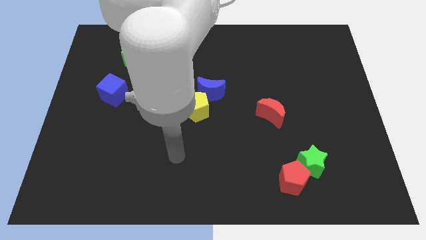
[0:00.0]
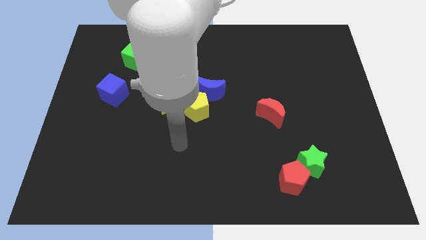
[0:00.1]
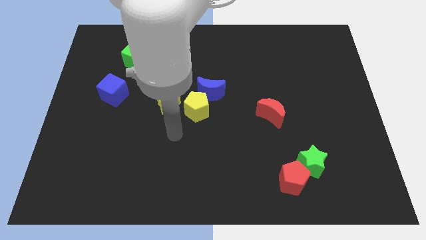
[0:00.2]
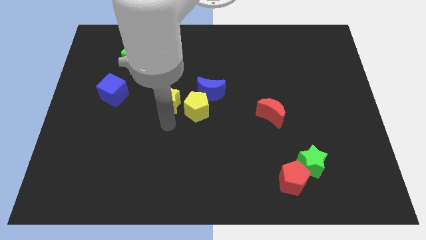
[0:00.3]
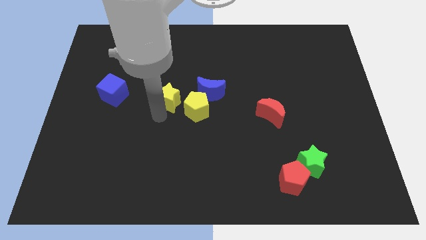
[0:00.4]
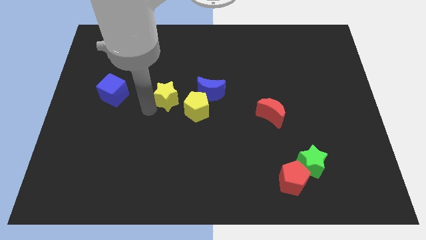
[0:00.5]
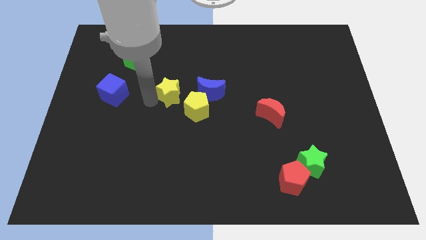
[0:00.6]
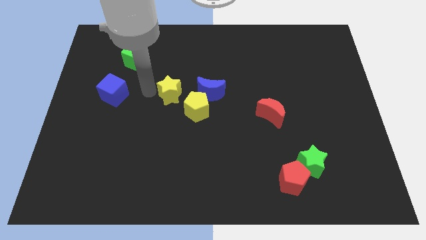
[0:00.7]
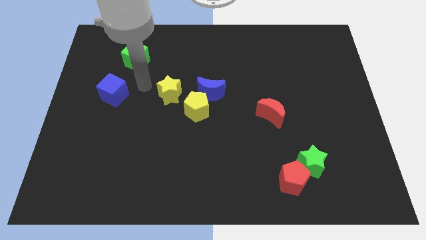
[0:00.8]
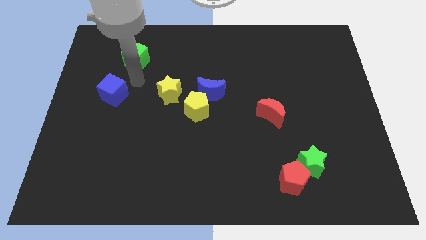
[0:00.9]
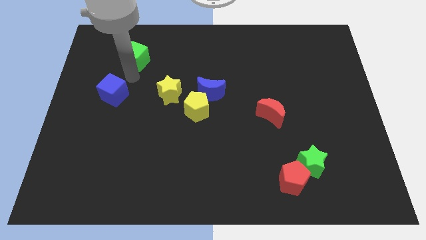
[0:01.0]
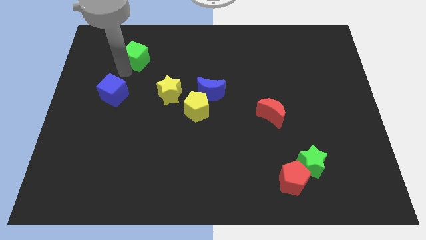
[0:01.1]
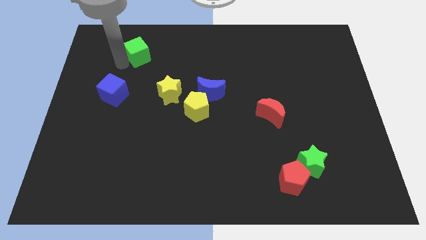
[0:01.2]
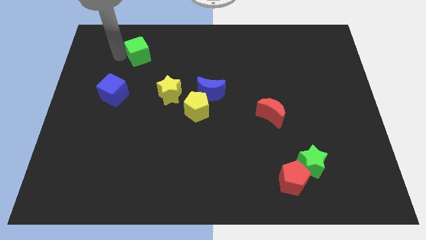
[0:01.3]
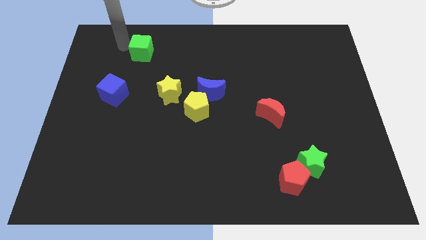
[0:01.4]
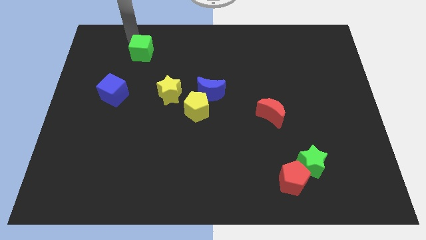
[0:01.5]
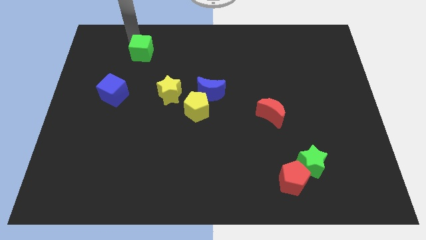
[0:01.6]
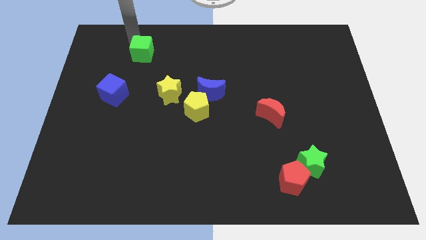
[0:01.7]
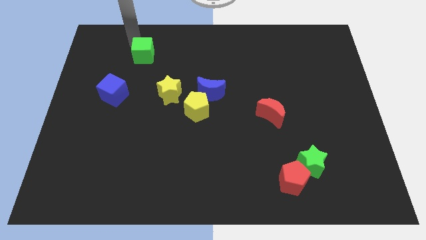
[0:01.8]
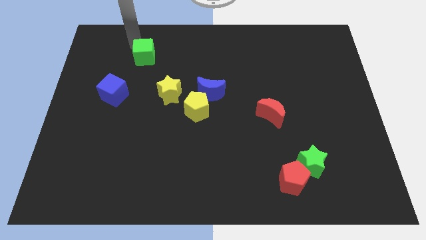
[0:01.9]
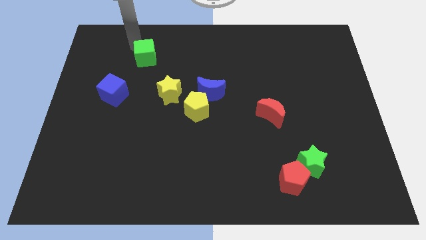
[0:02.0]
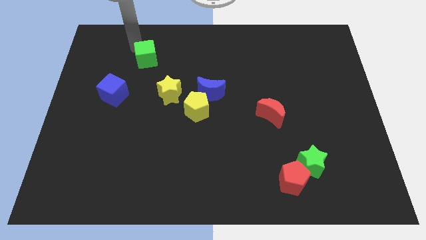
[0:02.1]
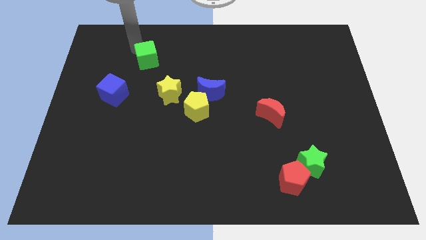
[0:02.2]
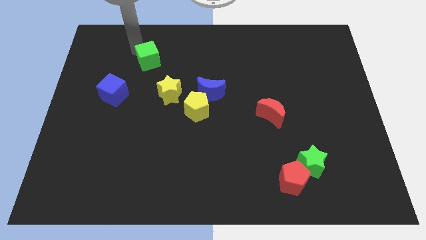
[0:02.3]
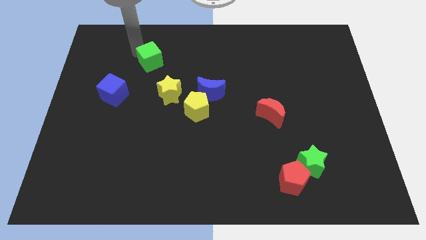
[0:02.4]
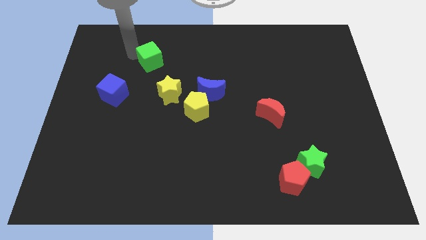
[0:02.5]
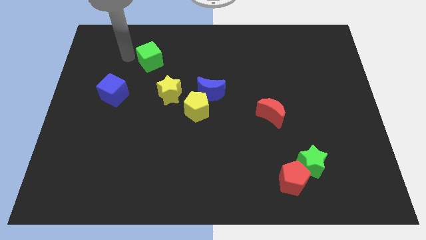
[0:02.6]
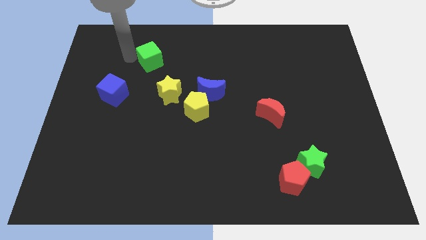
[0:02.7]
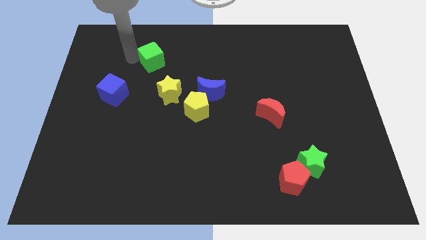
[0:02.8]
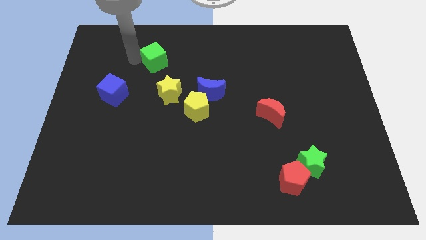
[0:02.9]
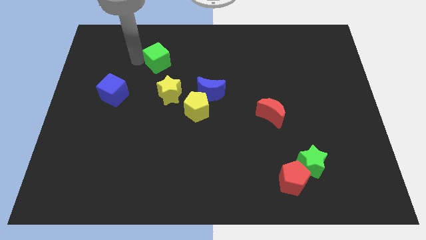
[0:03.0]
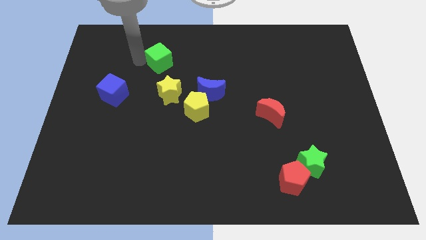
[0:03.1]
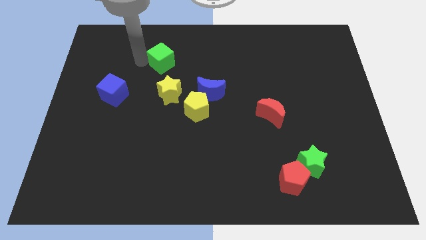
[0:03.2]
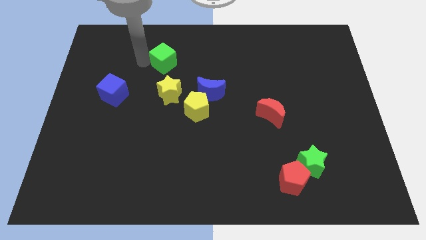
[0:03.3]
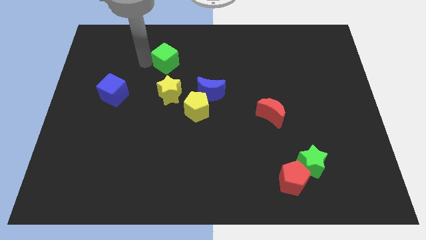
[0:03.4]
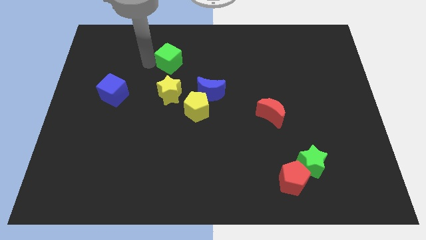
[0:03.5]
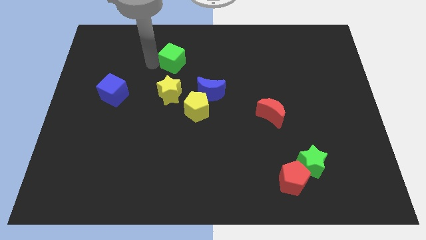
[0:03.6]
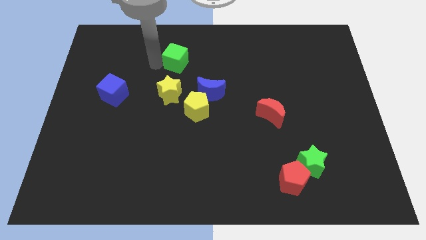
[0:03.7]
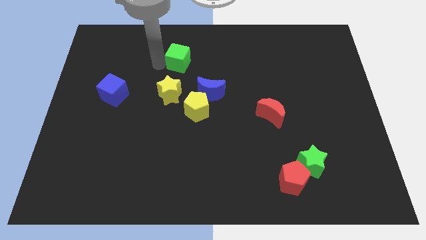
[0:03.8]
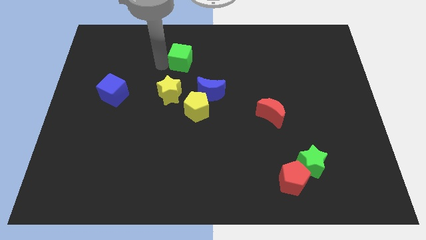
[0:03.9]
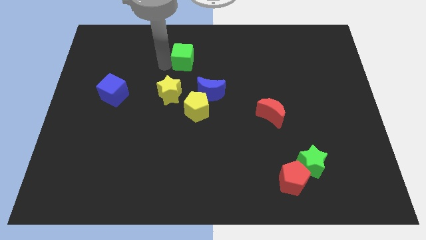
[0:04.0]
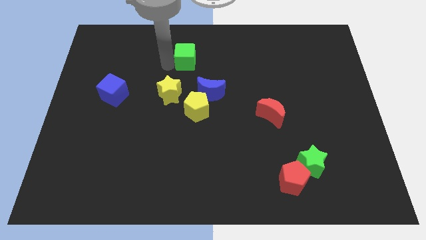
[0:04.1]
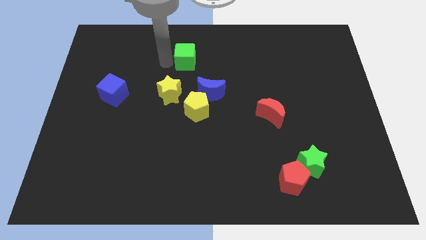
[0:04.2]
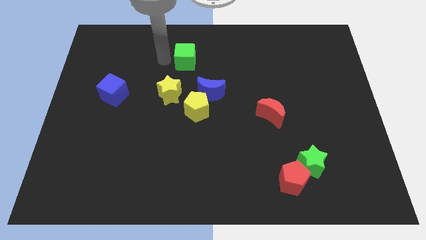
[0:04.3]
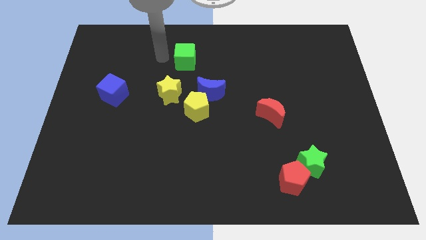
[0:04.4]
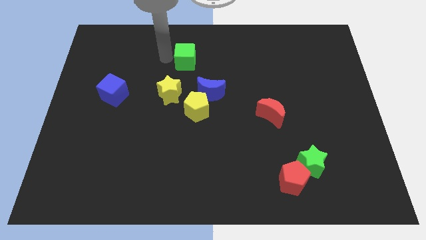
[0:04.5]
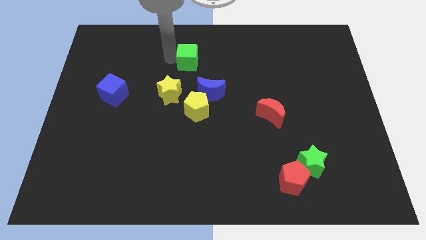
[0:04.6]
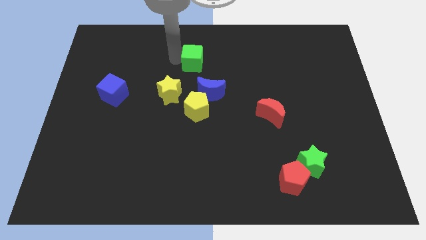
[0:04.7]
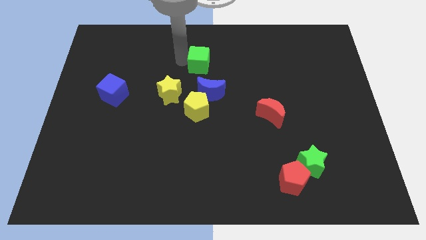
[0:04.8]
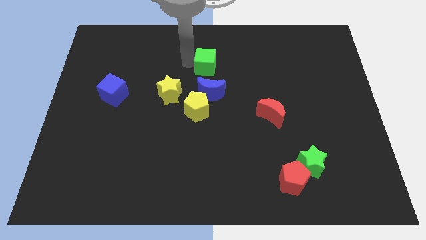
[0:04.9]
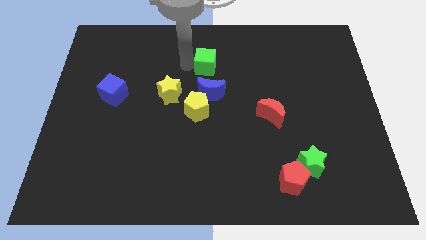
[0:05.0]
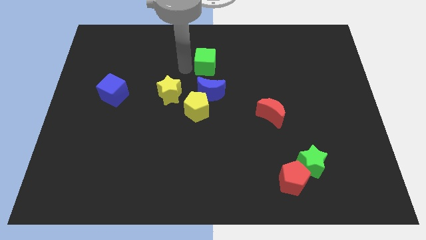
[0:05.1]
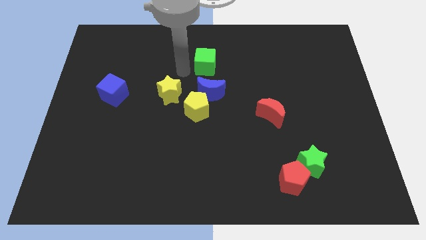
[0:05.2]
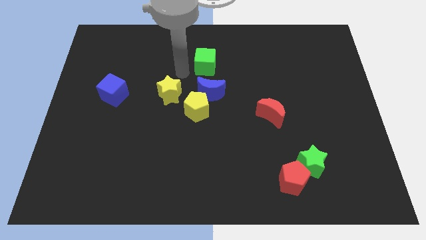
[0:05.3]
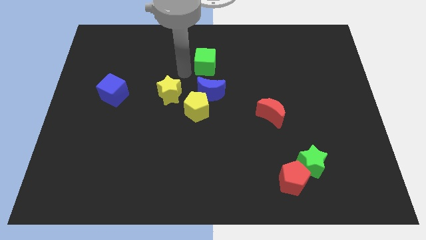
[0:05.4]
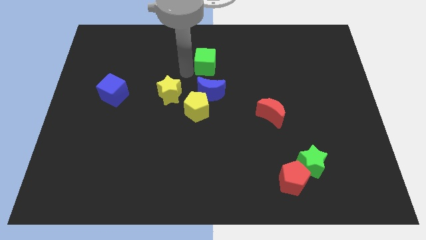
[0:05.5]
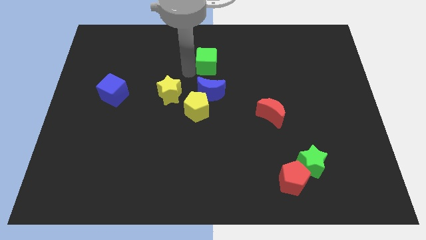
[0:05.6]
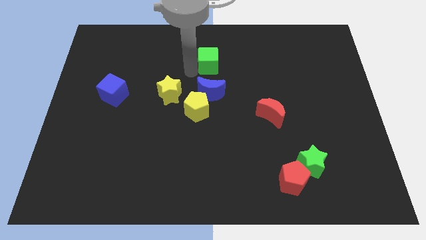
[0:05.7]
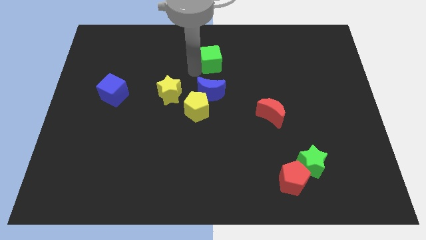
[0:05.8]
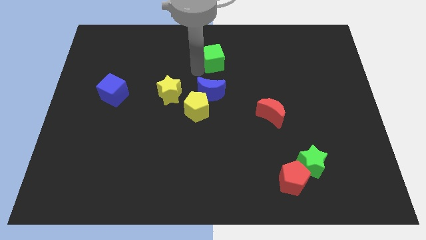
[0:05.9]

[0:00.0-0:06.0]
move the green cube right

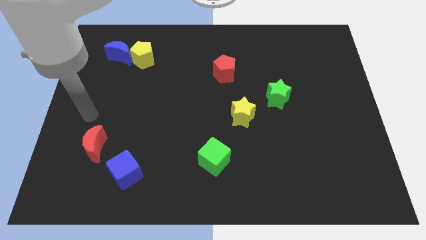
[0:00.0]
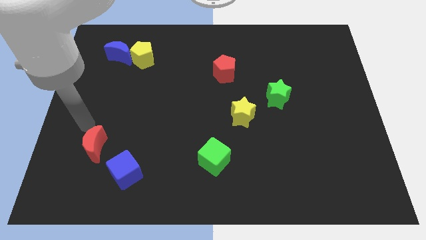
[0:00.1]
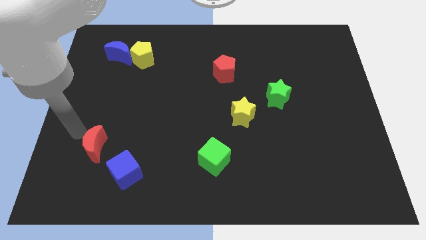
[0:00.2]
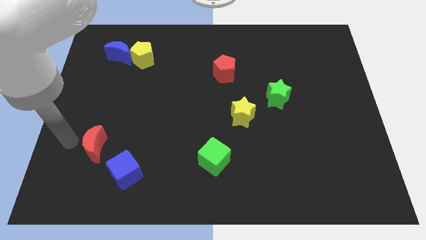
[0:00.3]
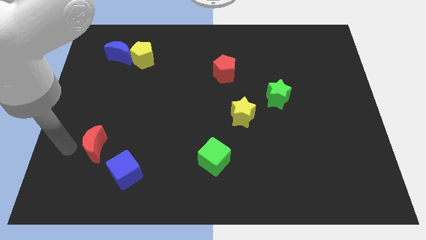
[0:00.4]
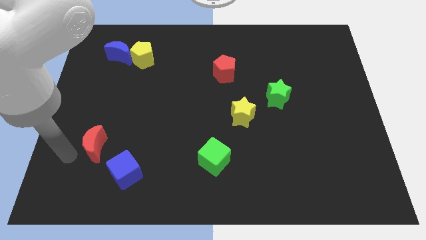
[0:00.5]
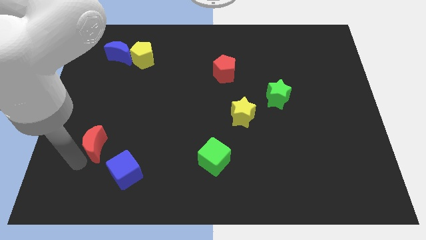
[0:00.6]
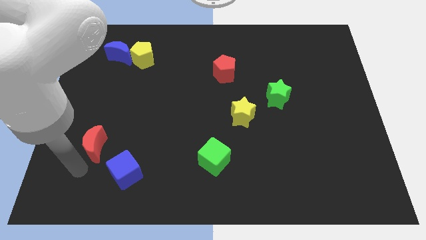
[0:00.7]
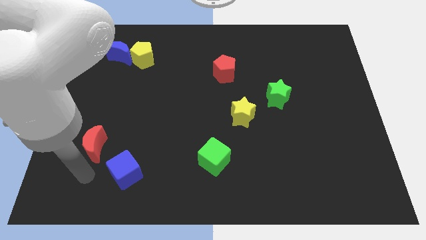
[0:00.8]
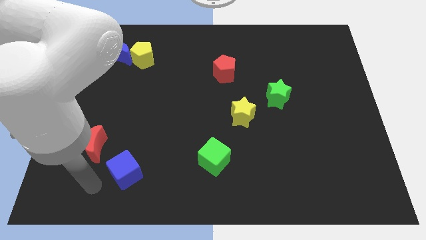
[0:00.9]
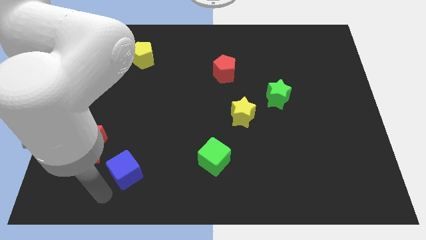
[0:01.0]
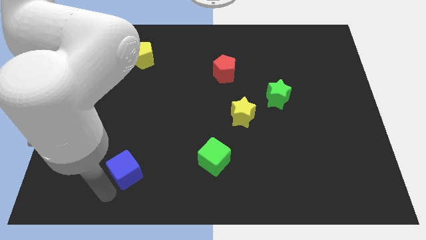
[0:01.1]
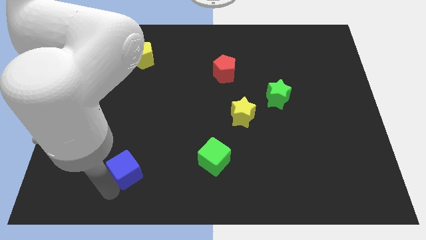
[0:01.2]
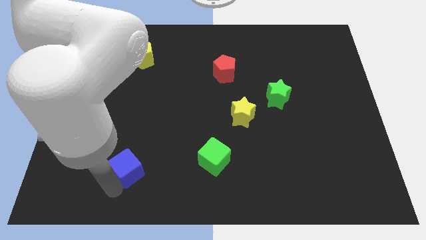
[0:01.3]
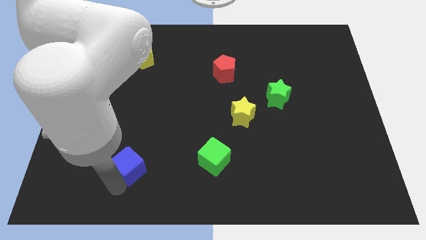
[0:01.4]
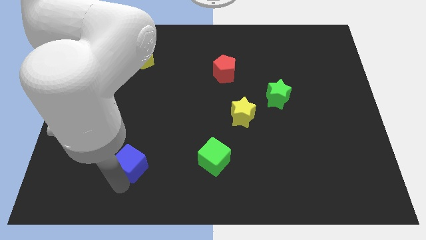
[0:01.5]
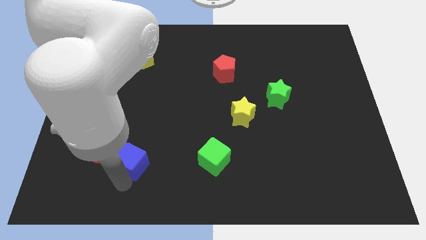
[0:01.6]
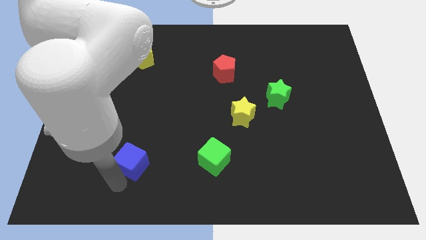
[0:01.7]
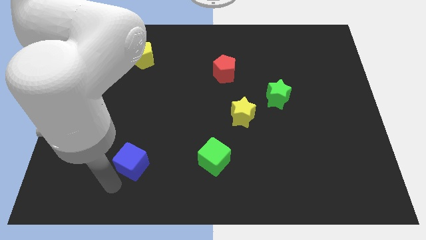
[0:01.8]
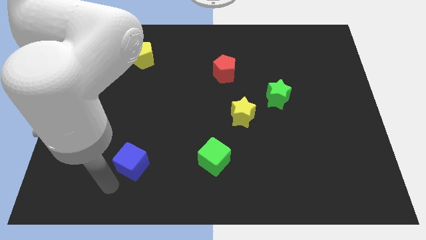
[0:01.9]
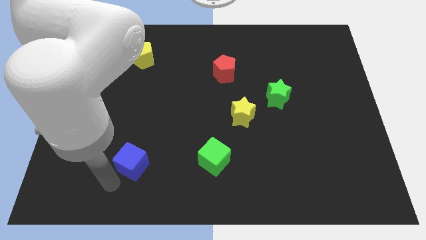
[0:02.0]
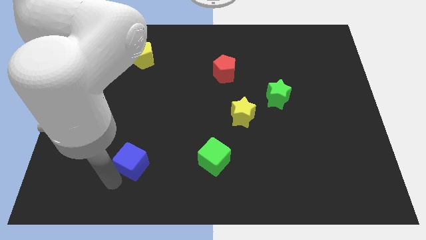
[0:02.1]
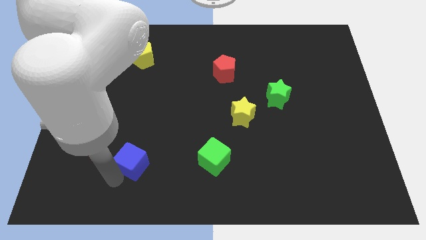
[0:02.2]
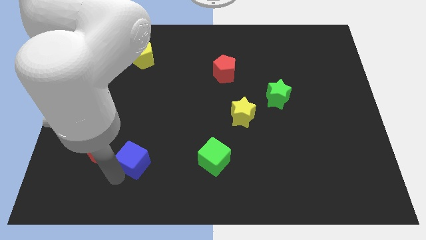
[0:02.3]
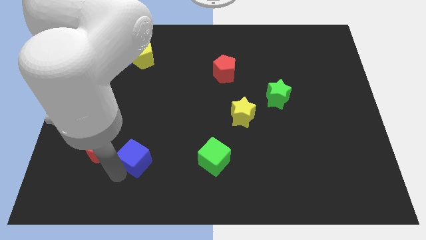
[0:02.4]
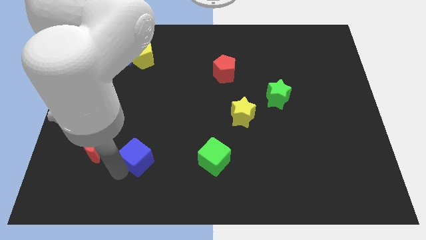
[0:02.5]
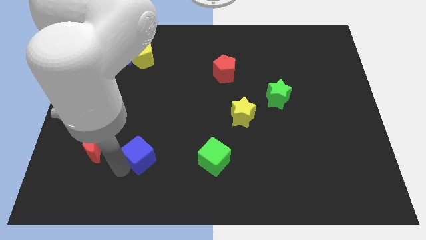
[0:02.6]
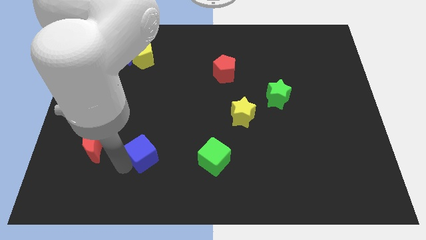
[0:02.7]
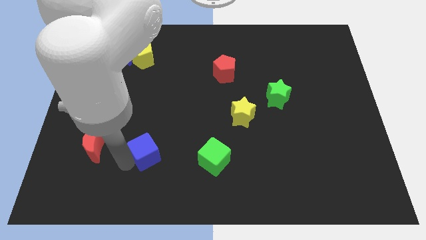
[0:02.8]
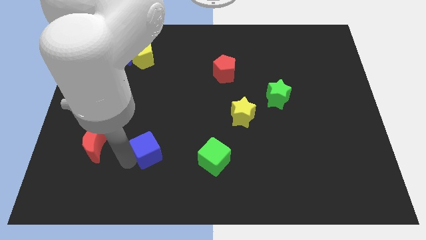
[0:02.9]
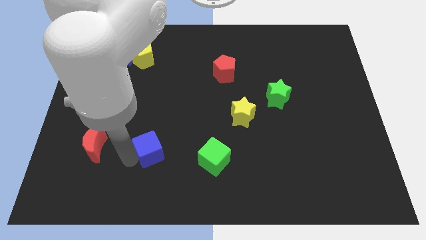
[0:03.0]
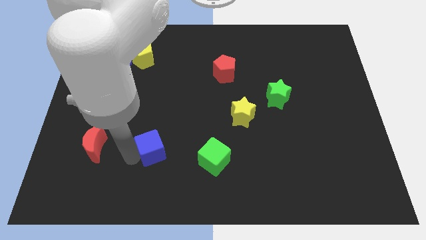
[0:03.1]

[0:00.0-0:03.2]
move the blue cube a little up and to the right diagonally
